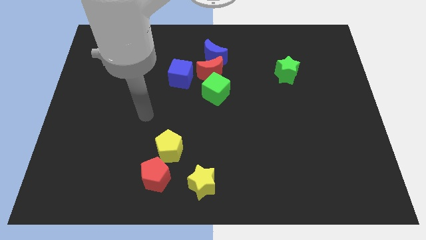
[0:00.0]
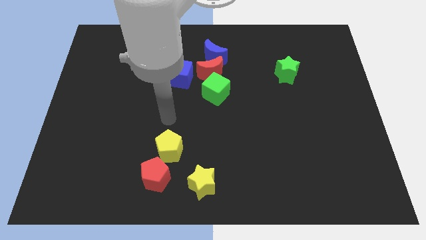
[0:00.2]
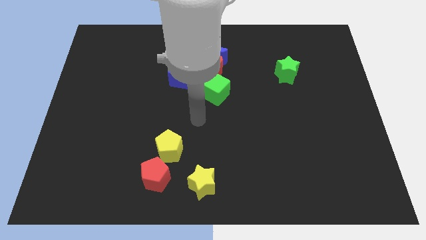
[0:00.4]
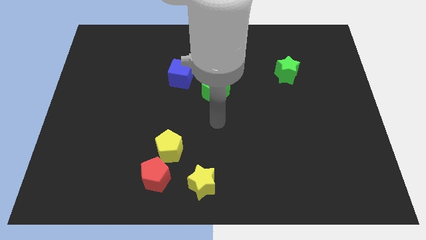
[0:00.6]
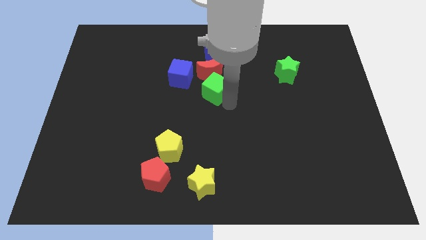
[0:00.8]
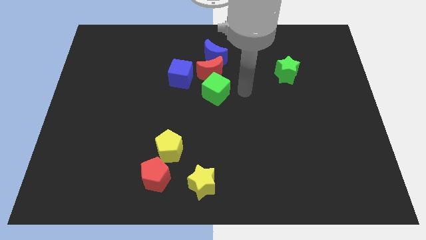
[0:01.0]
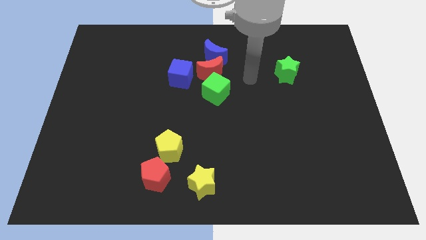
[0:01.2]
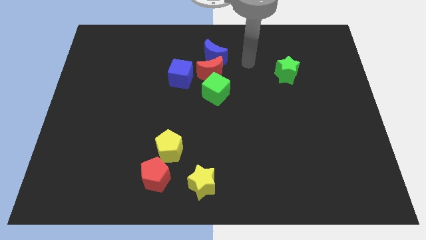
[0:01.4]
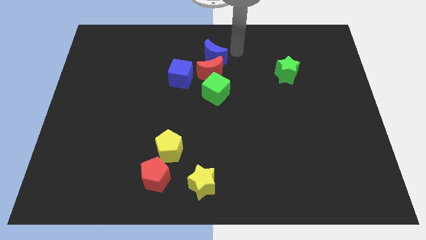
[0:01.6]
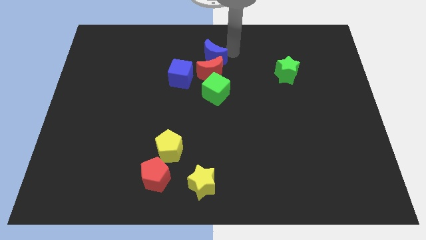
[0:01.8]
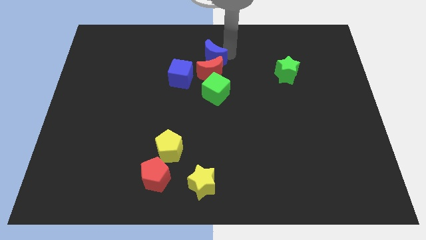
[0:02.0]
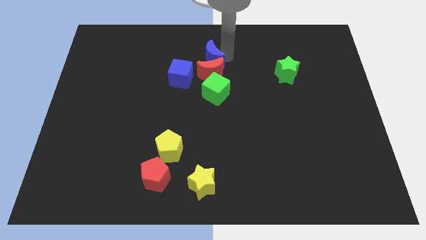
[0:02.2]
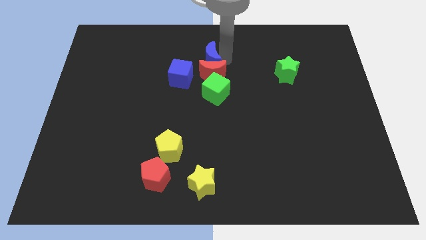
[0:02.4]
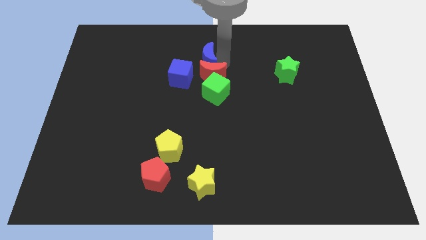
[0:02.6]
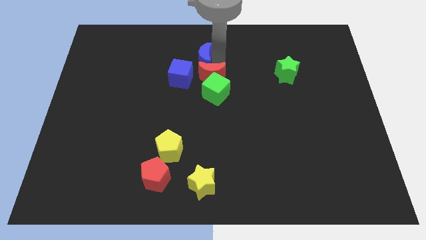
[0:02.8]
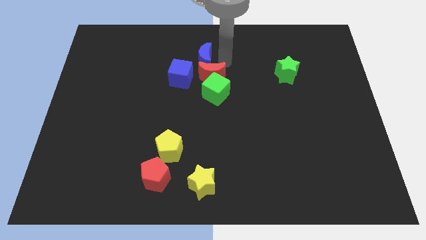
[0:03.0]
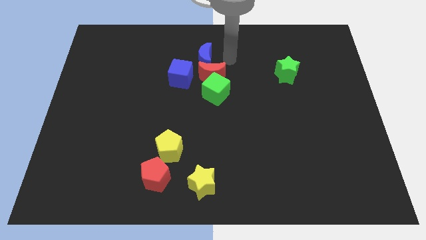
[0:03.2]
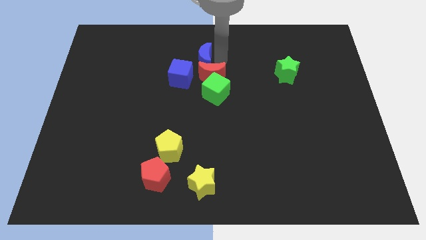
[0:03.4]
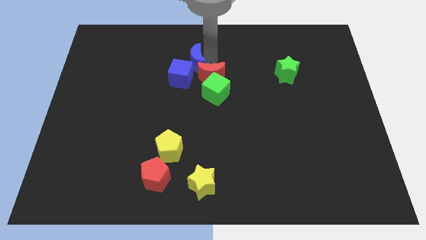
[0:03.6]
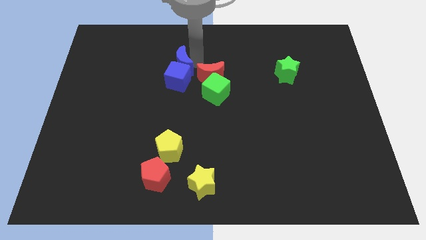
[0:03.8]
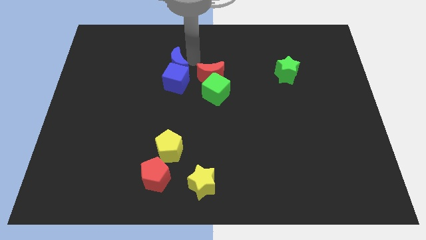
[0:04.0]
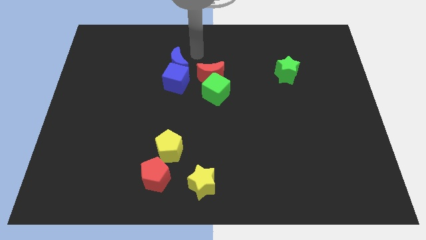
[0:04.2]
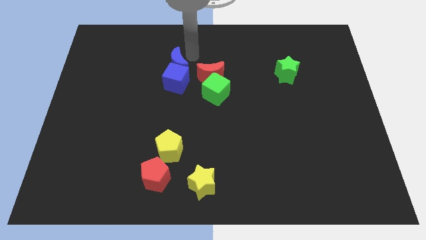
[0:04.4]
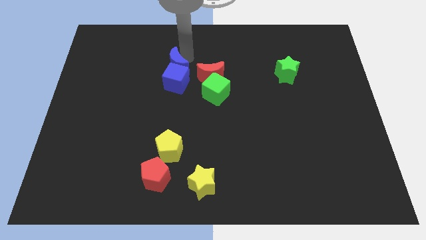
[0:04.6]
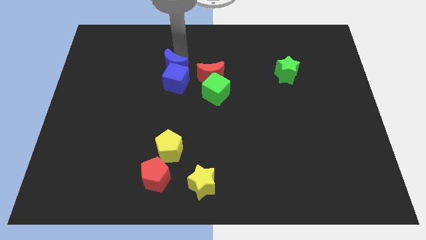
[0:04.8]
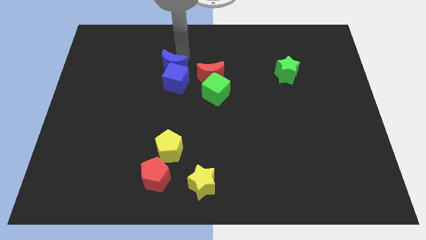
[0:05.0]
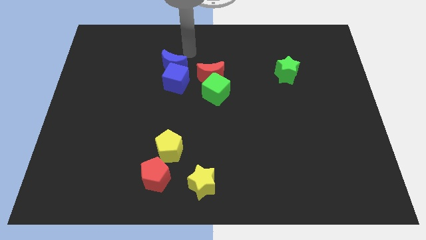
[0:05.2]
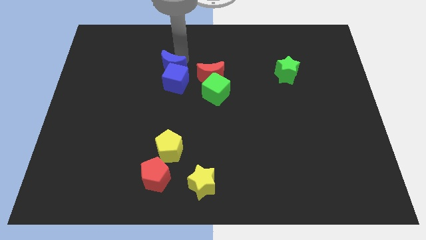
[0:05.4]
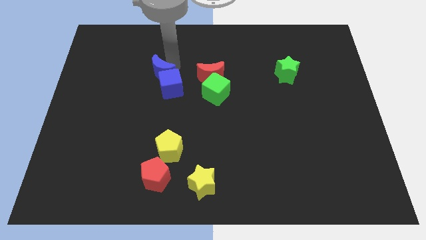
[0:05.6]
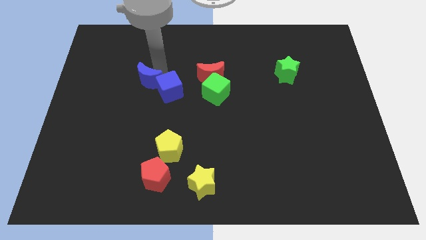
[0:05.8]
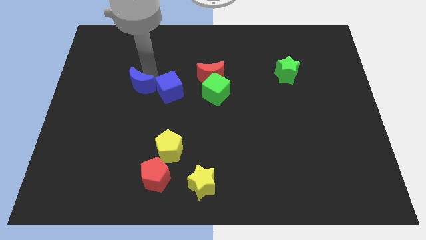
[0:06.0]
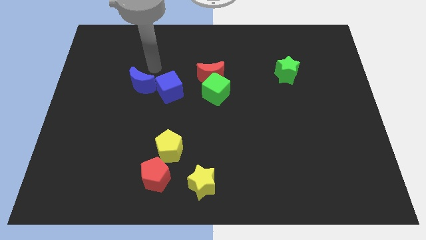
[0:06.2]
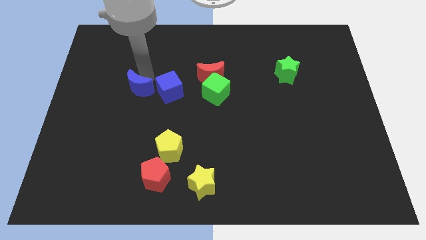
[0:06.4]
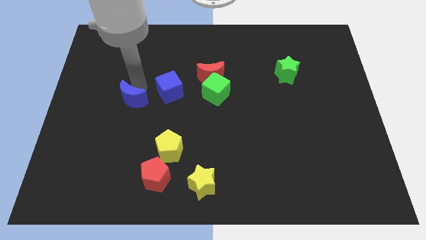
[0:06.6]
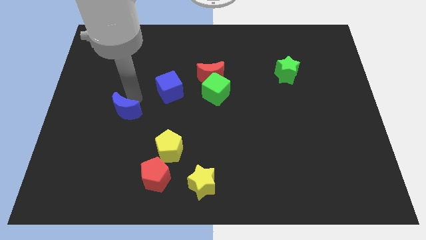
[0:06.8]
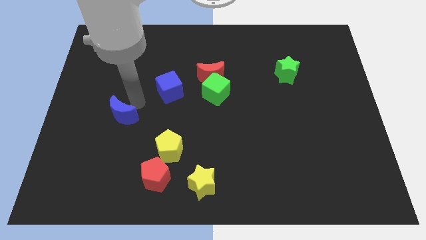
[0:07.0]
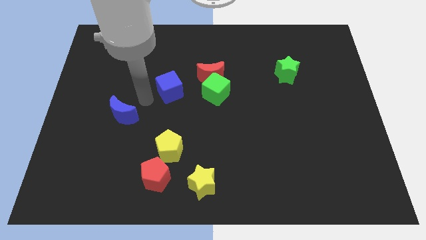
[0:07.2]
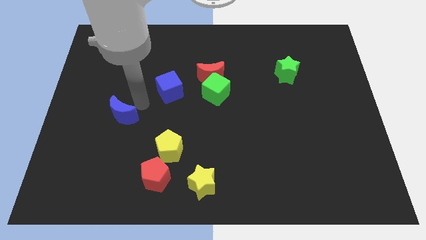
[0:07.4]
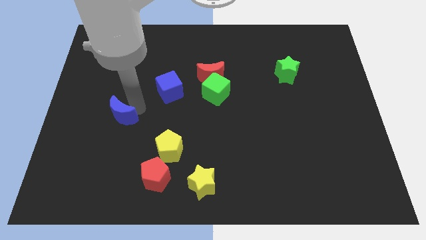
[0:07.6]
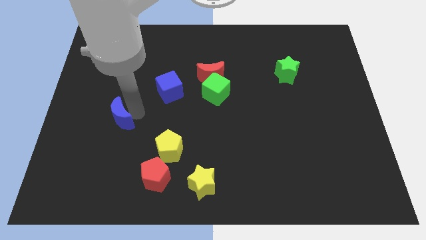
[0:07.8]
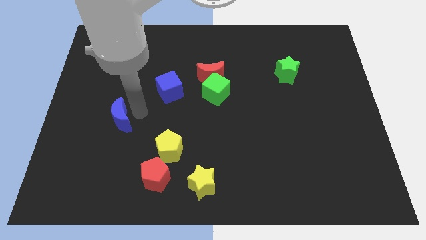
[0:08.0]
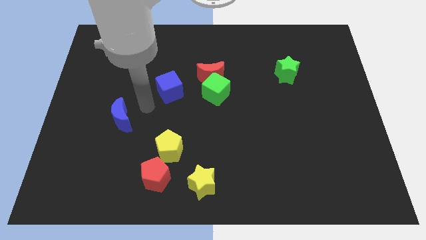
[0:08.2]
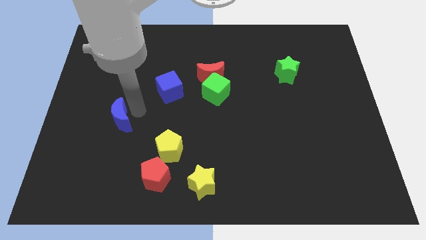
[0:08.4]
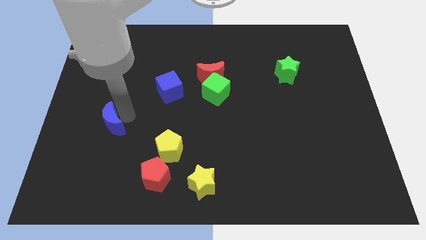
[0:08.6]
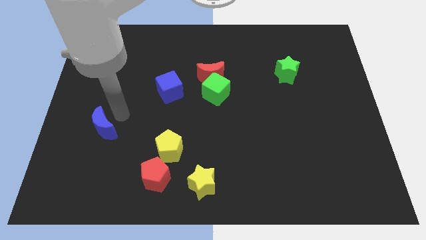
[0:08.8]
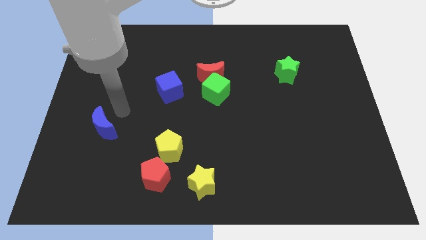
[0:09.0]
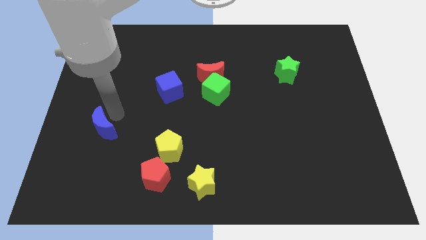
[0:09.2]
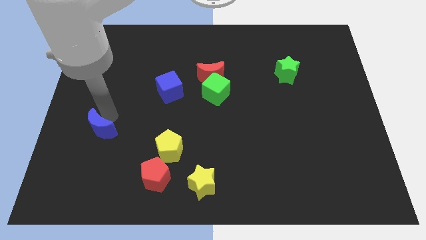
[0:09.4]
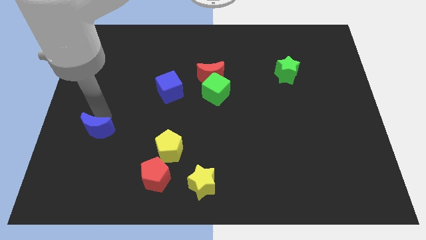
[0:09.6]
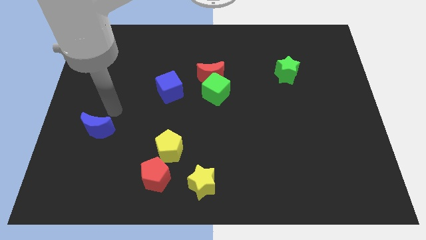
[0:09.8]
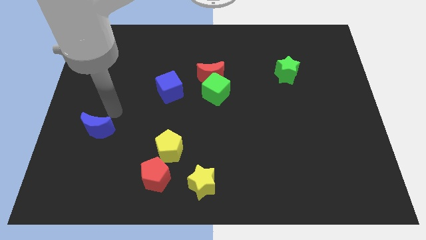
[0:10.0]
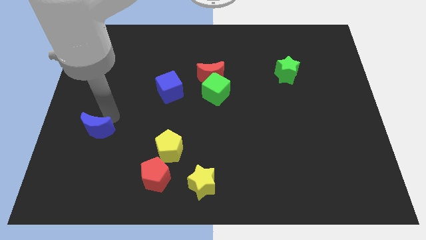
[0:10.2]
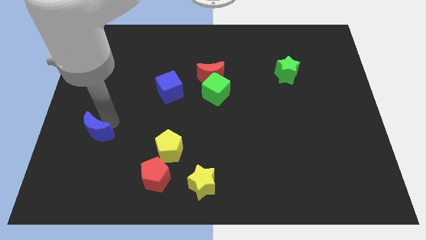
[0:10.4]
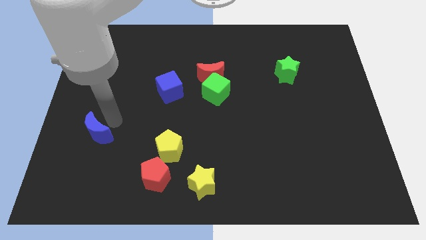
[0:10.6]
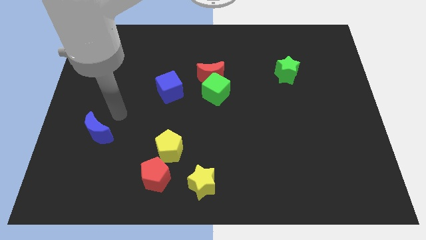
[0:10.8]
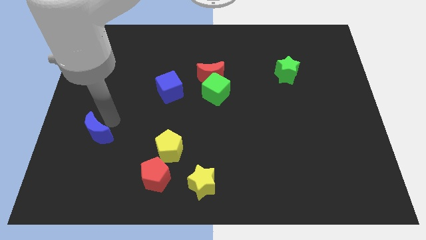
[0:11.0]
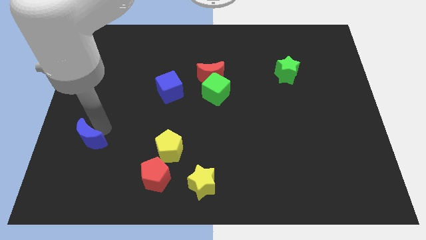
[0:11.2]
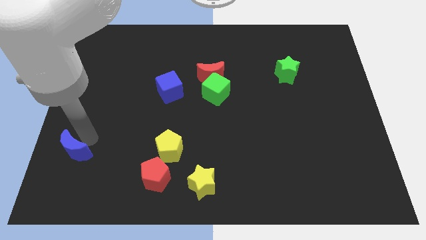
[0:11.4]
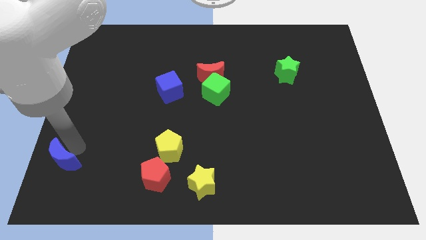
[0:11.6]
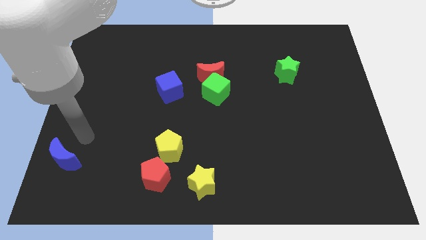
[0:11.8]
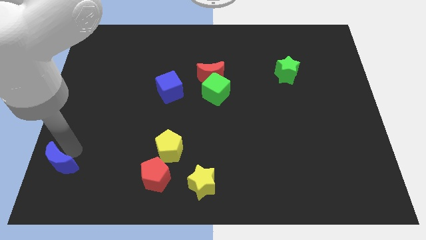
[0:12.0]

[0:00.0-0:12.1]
slide the blue moon to the bottom left

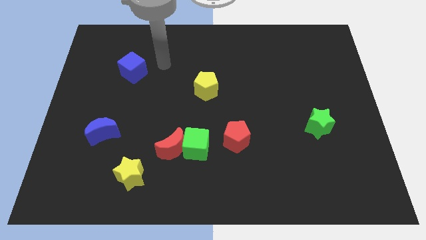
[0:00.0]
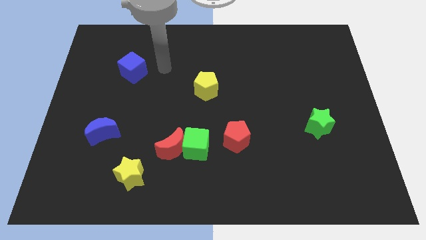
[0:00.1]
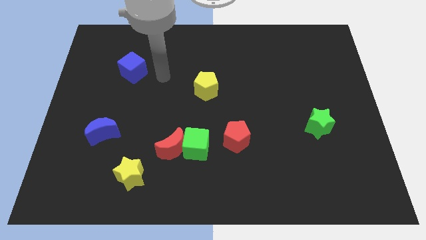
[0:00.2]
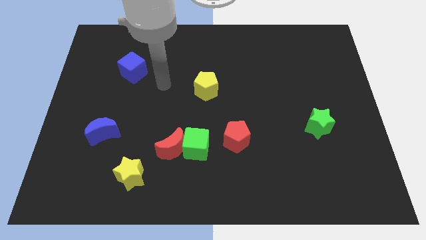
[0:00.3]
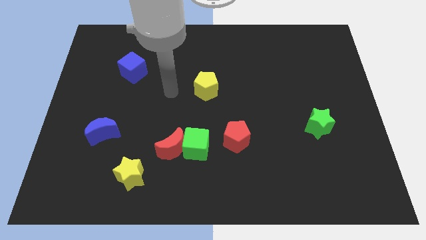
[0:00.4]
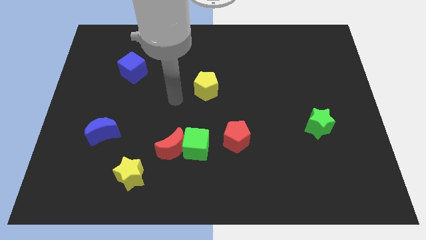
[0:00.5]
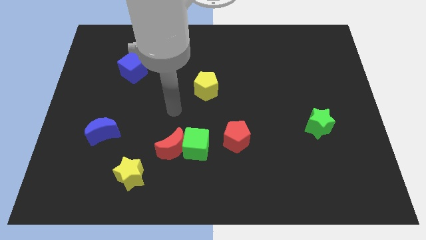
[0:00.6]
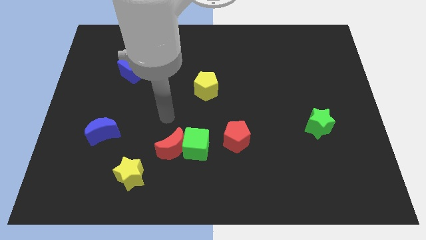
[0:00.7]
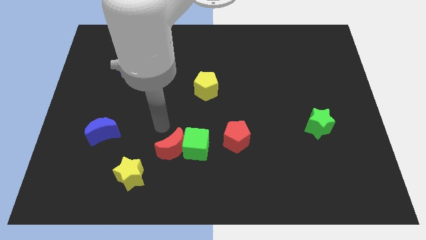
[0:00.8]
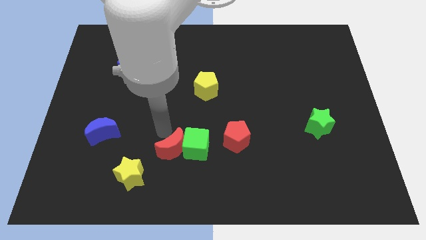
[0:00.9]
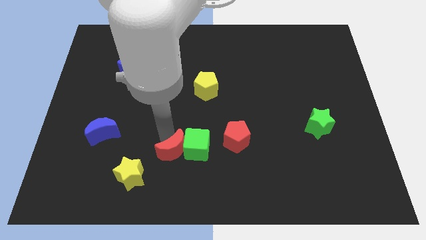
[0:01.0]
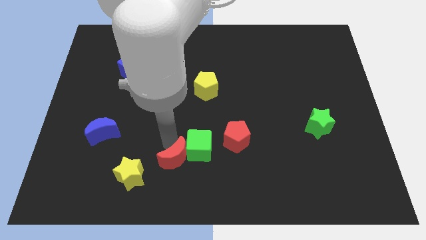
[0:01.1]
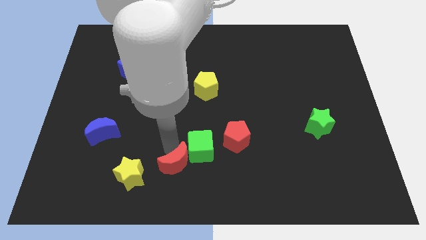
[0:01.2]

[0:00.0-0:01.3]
move the red moon to the bottom side

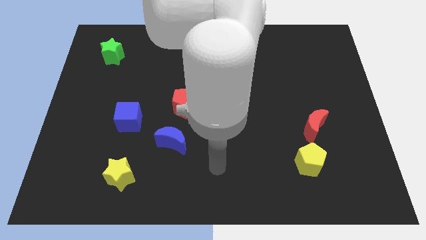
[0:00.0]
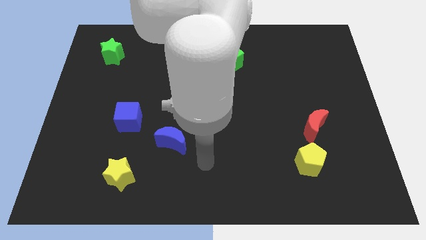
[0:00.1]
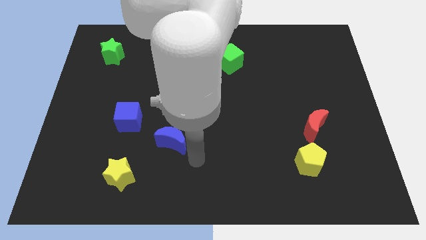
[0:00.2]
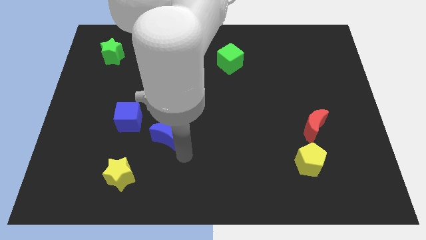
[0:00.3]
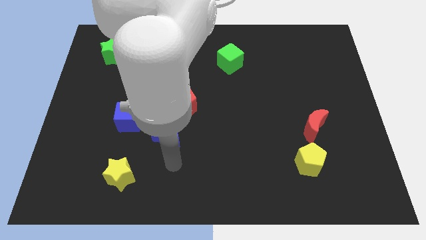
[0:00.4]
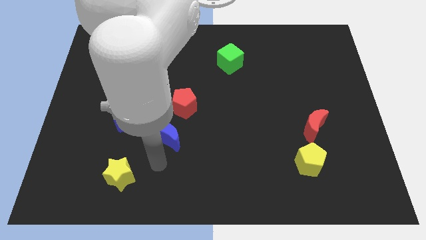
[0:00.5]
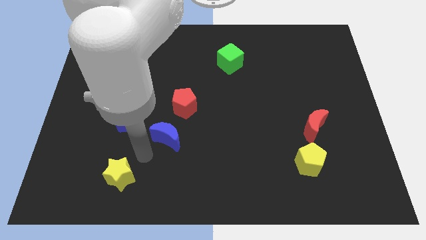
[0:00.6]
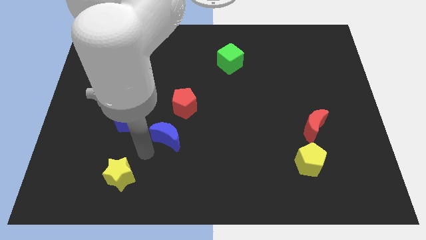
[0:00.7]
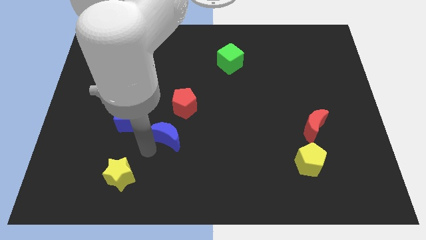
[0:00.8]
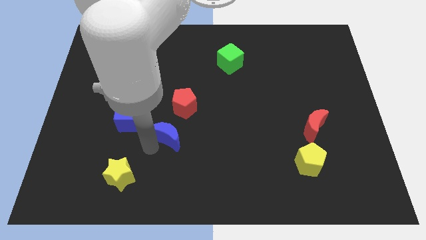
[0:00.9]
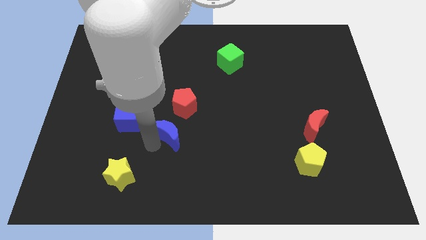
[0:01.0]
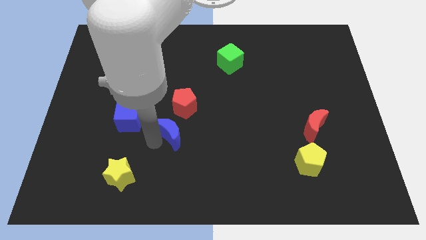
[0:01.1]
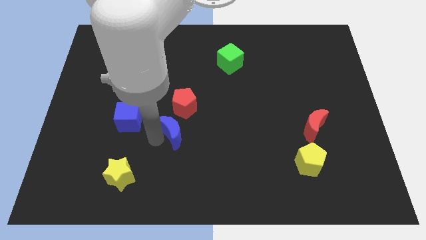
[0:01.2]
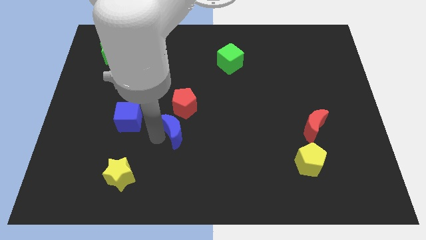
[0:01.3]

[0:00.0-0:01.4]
move the blue moon to the center
